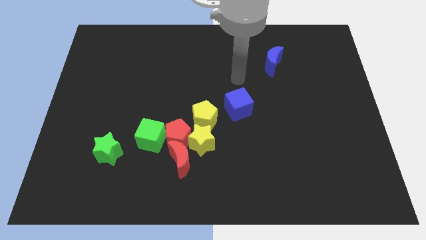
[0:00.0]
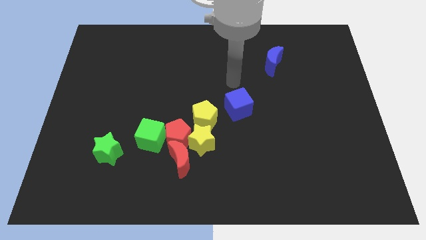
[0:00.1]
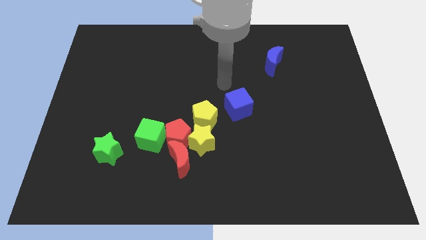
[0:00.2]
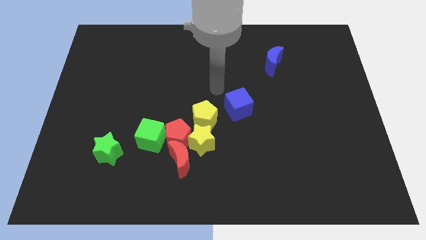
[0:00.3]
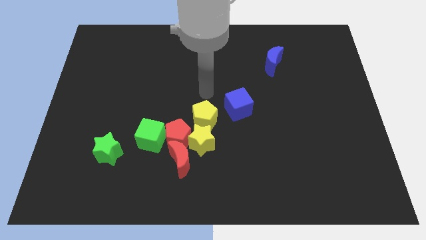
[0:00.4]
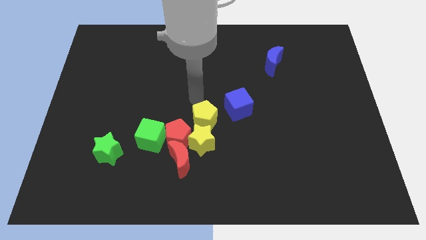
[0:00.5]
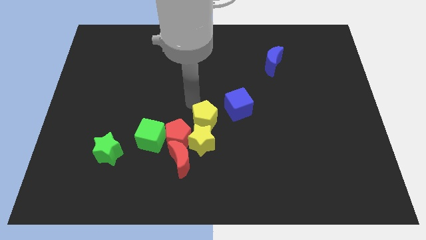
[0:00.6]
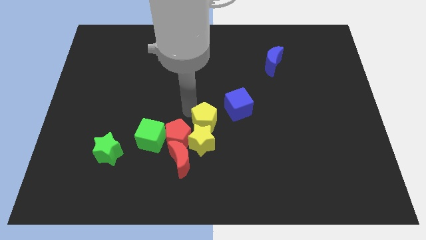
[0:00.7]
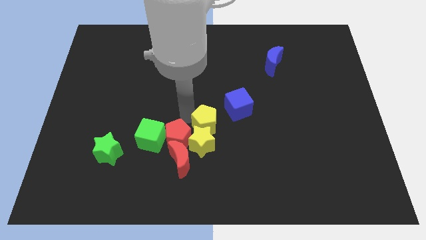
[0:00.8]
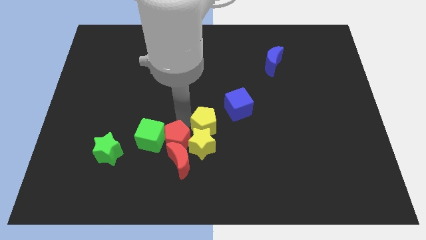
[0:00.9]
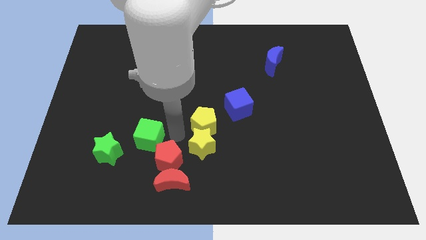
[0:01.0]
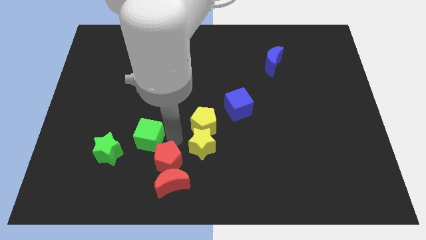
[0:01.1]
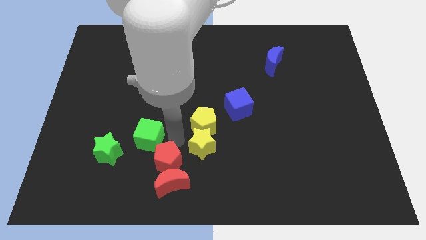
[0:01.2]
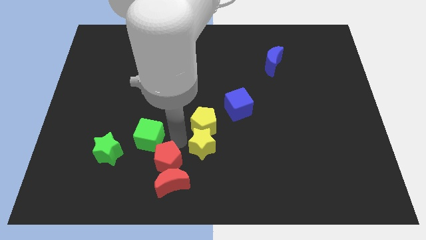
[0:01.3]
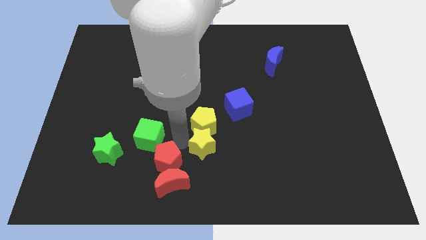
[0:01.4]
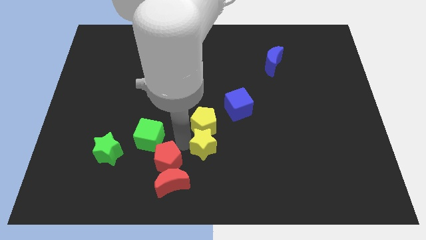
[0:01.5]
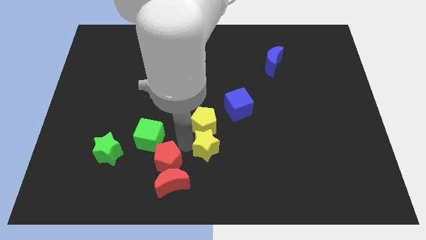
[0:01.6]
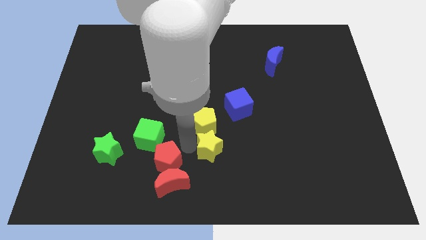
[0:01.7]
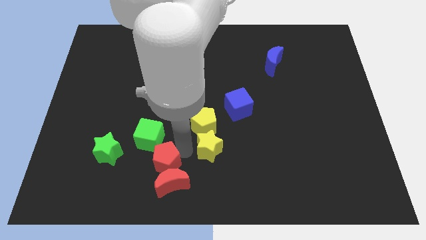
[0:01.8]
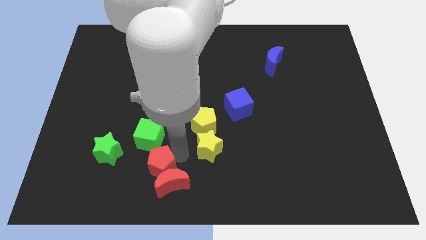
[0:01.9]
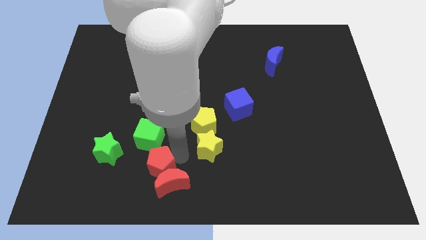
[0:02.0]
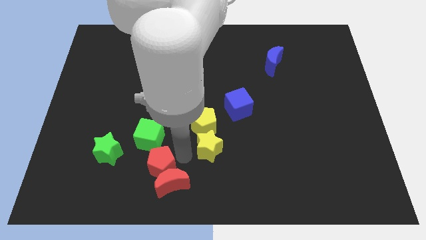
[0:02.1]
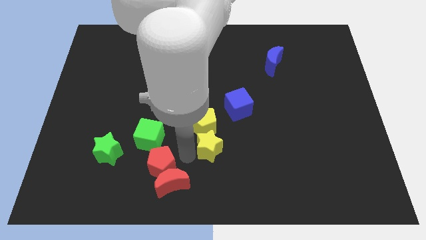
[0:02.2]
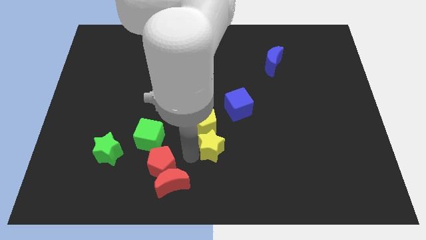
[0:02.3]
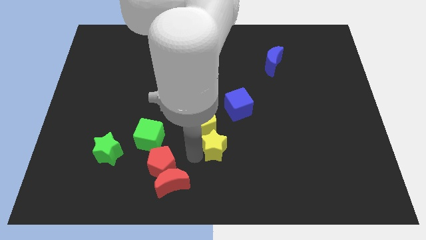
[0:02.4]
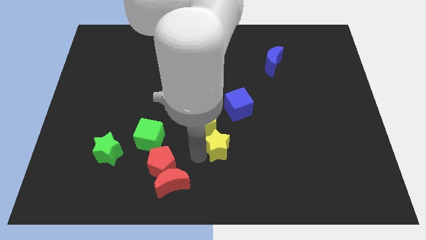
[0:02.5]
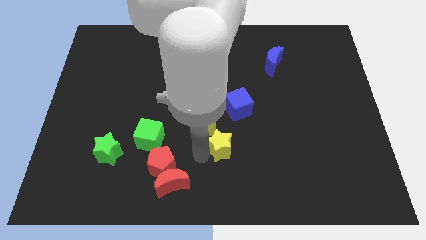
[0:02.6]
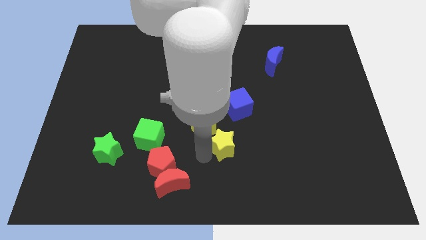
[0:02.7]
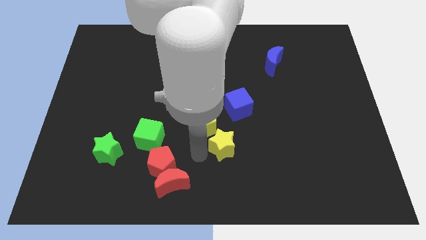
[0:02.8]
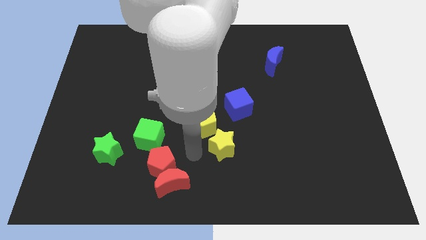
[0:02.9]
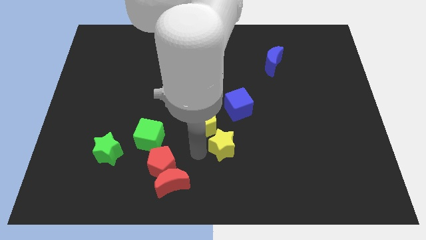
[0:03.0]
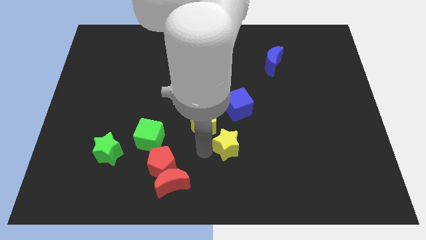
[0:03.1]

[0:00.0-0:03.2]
separate the yellow star from the group

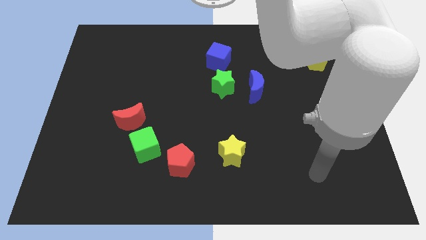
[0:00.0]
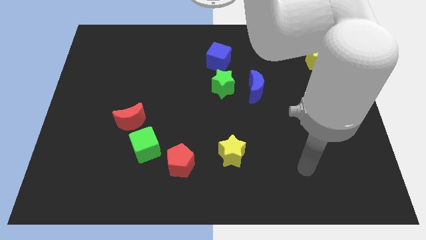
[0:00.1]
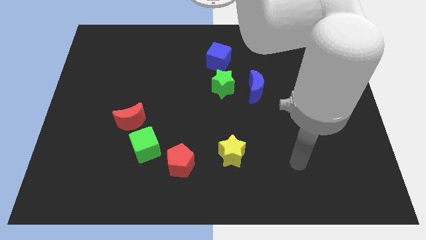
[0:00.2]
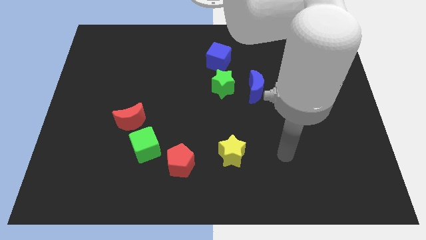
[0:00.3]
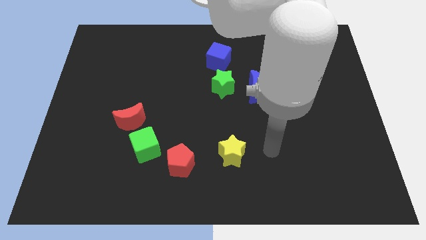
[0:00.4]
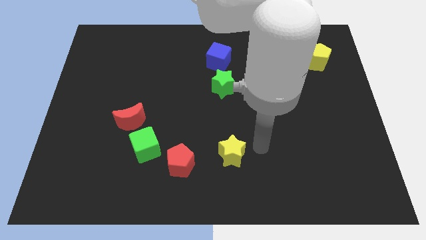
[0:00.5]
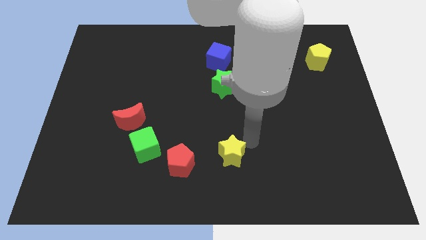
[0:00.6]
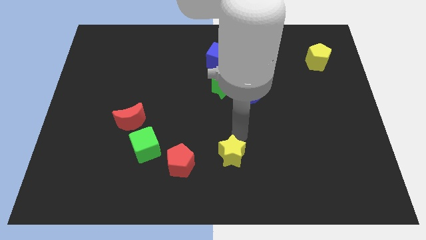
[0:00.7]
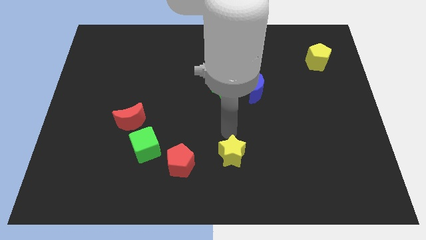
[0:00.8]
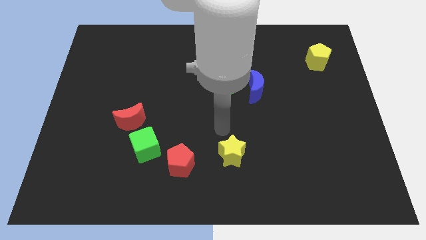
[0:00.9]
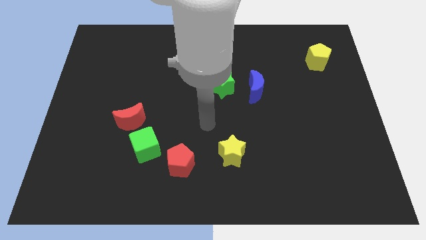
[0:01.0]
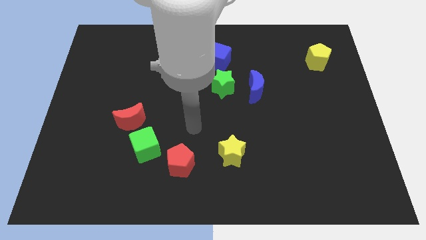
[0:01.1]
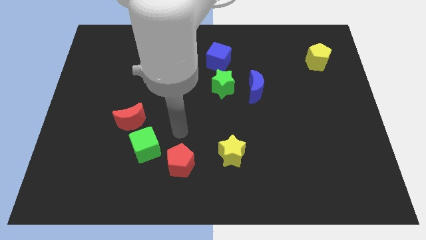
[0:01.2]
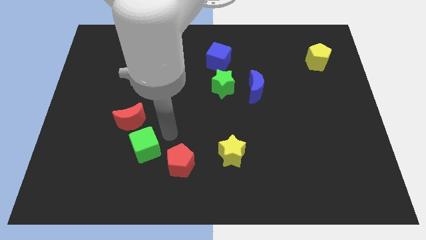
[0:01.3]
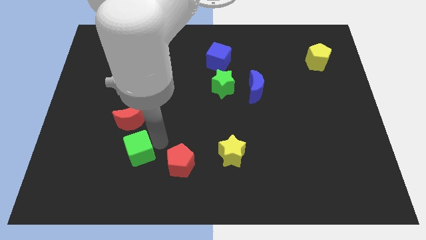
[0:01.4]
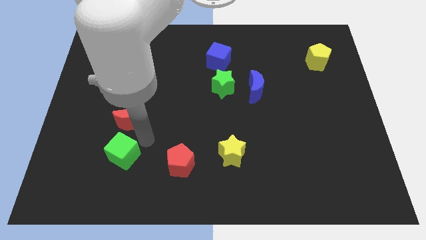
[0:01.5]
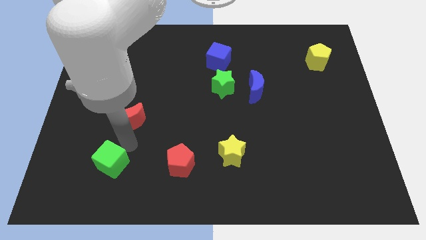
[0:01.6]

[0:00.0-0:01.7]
separate the red moon from the green cube

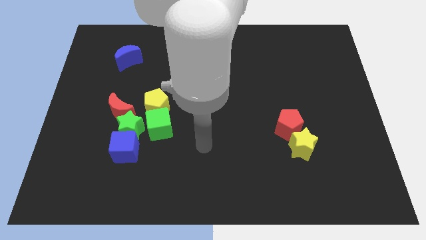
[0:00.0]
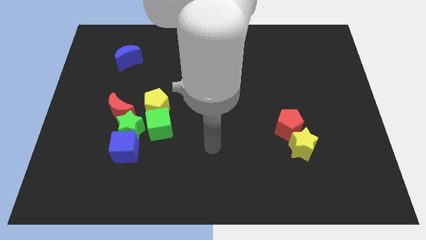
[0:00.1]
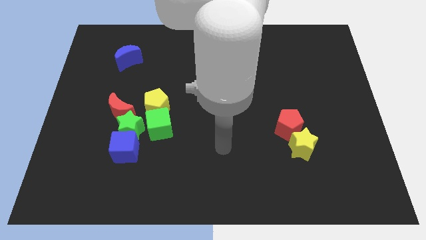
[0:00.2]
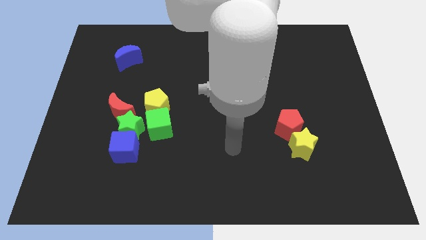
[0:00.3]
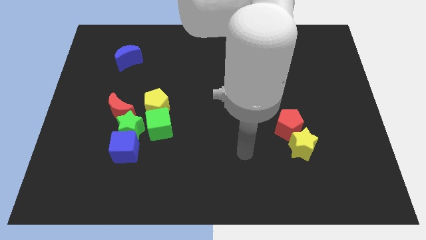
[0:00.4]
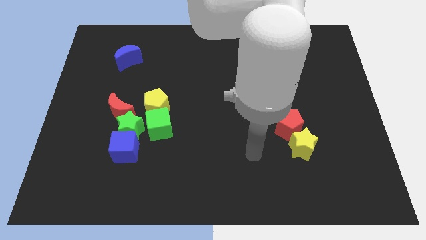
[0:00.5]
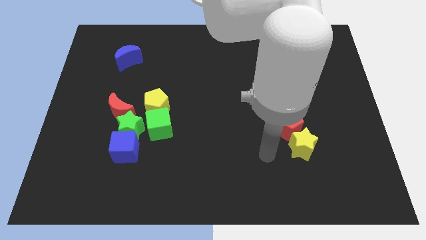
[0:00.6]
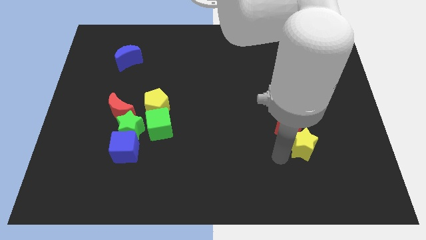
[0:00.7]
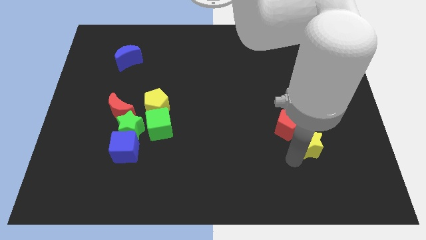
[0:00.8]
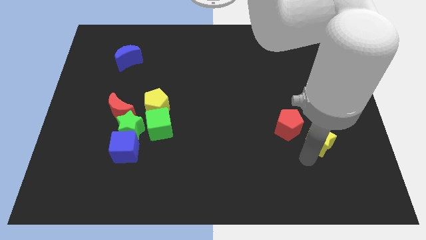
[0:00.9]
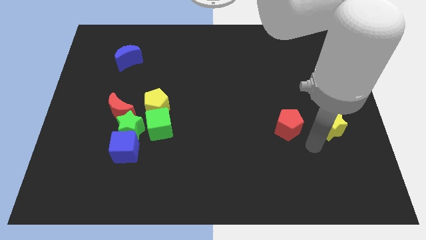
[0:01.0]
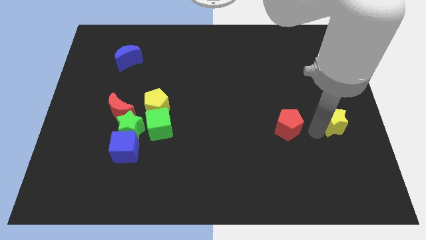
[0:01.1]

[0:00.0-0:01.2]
separate the red pentagon from the yellow star

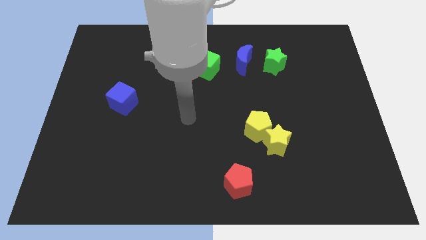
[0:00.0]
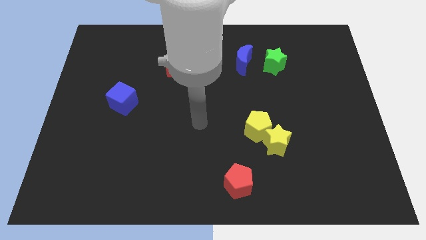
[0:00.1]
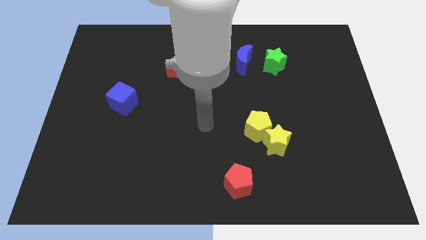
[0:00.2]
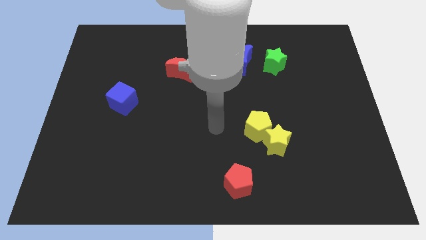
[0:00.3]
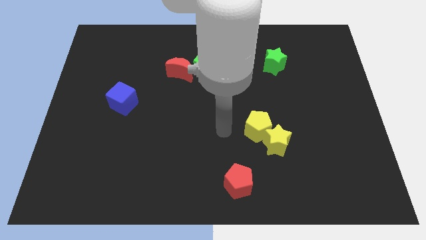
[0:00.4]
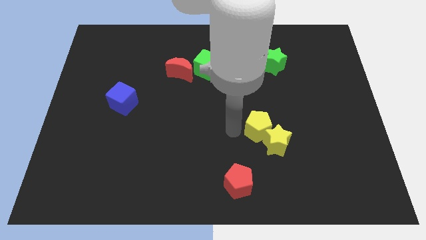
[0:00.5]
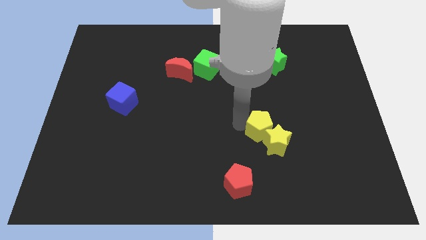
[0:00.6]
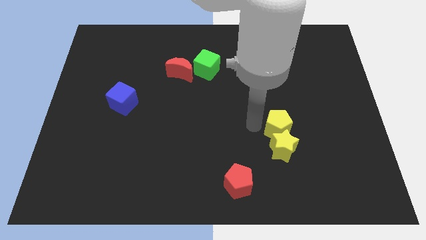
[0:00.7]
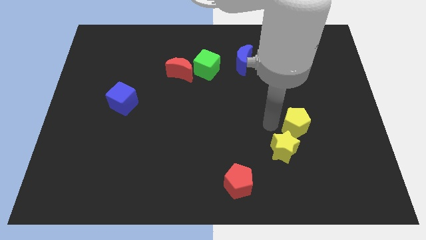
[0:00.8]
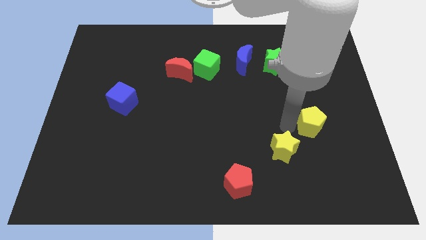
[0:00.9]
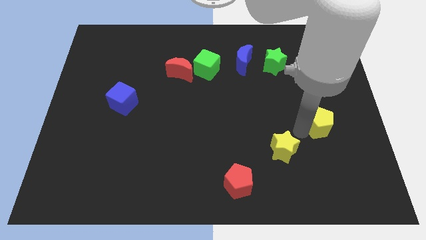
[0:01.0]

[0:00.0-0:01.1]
pull the yellow star apart from the yellow pentagon

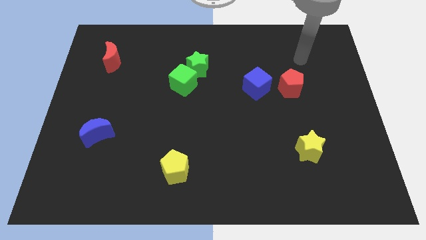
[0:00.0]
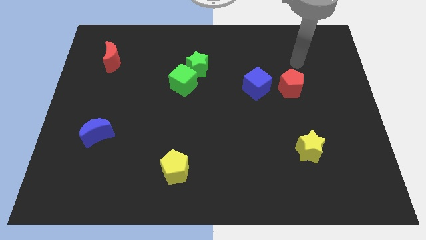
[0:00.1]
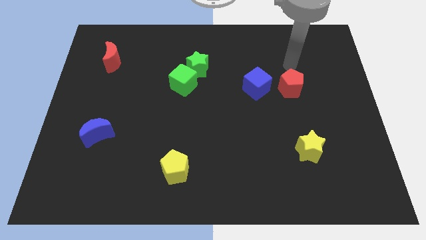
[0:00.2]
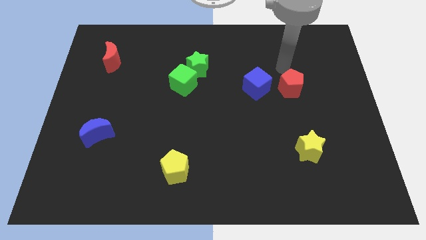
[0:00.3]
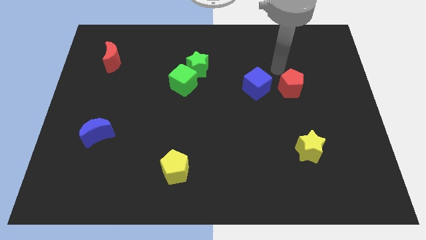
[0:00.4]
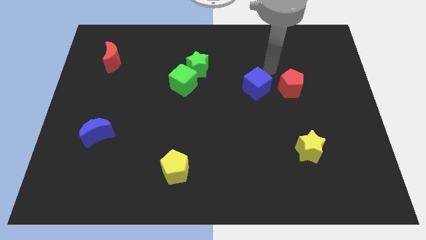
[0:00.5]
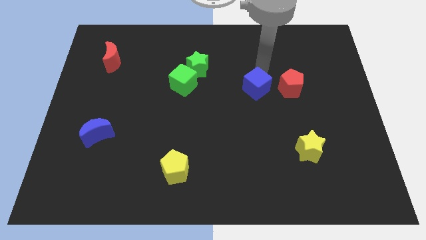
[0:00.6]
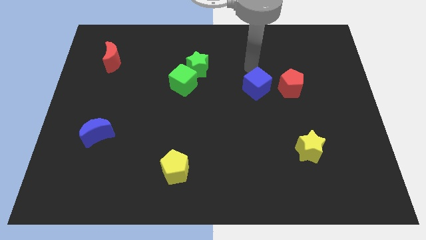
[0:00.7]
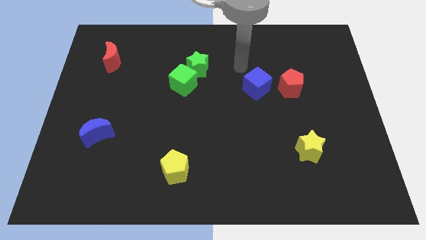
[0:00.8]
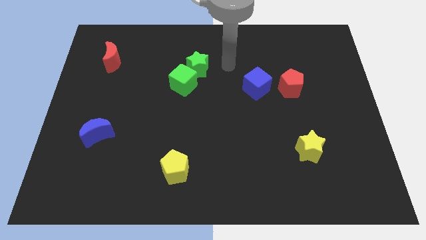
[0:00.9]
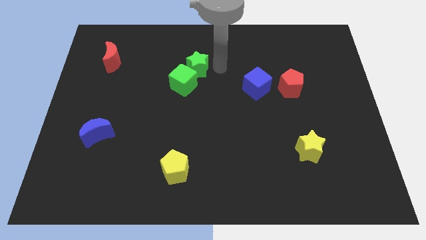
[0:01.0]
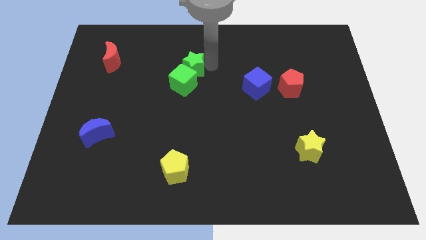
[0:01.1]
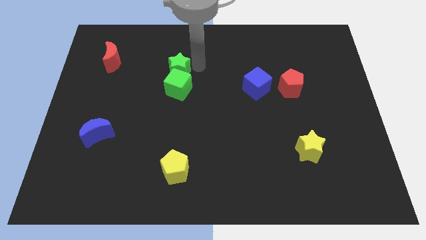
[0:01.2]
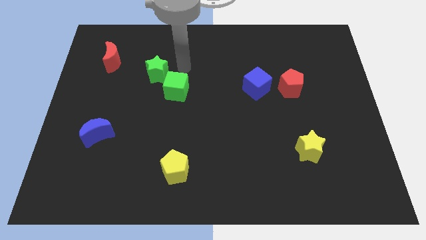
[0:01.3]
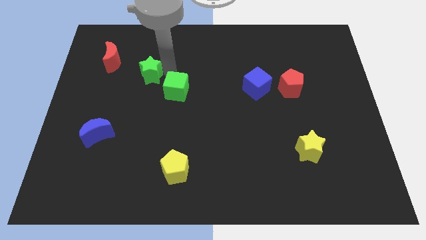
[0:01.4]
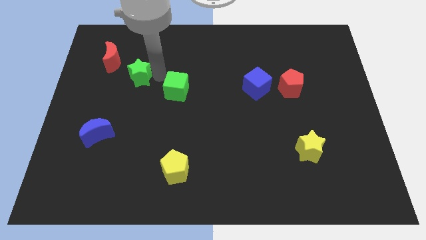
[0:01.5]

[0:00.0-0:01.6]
pull the green cube apart from the green star

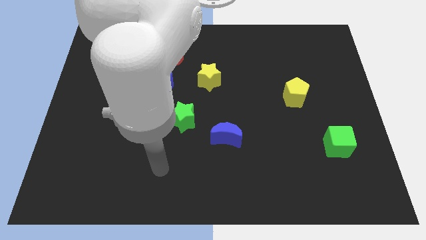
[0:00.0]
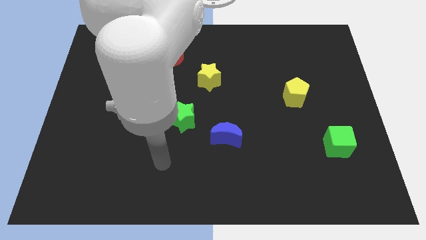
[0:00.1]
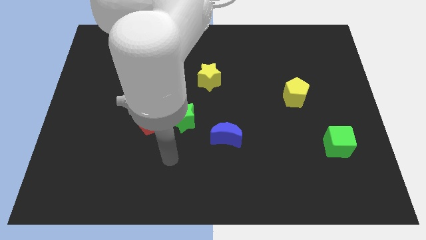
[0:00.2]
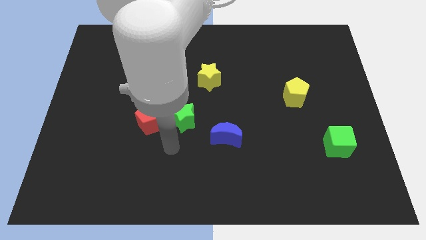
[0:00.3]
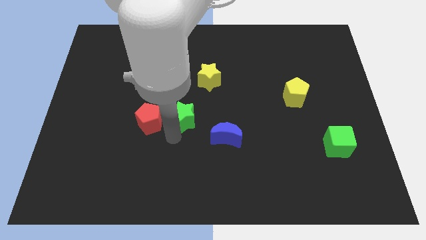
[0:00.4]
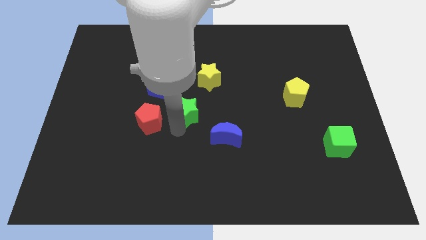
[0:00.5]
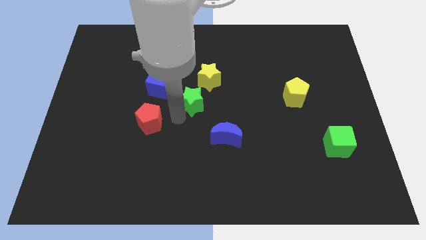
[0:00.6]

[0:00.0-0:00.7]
separate the red pentagon from the green star
